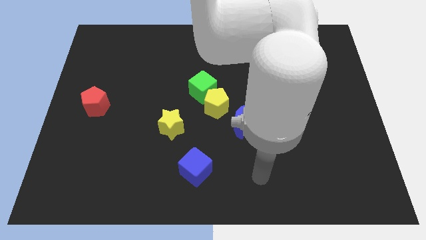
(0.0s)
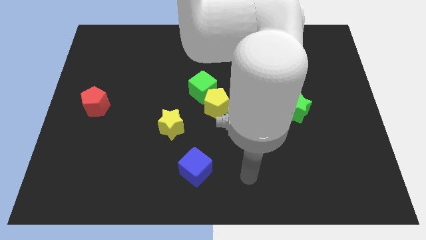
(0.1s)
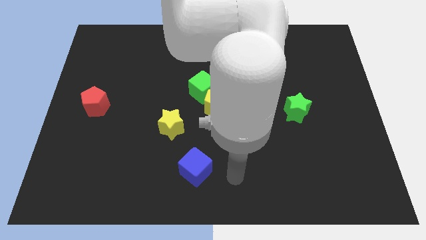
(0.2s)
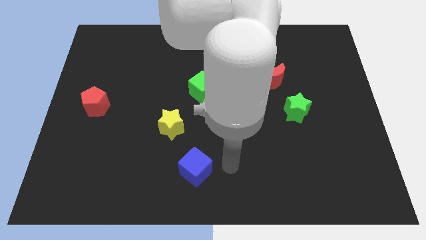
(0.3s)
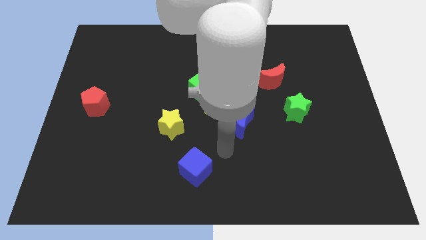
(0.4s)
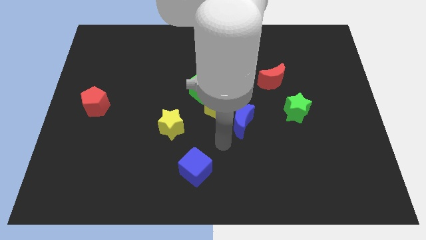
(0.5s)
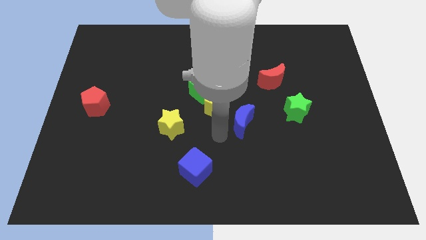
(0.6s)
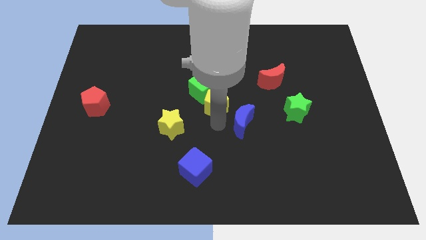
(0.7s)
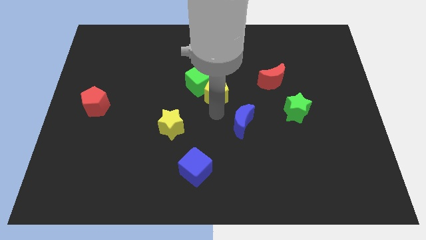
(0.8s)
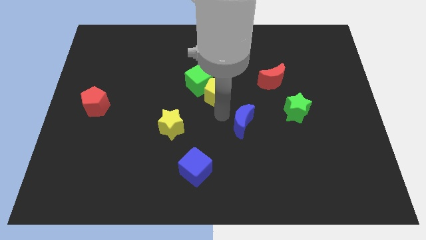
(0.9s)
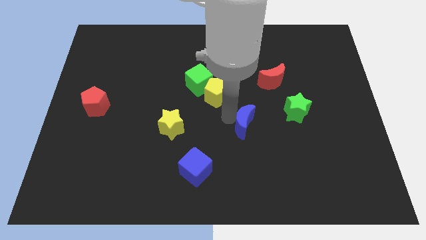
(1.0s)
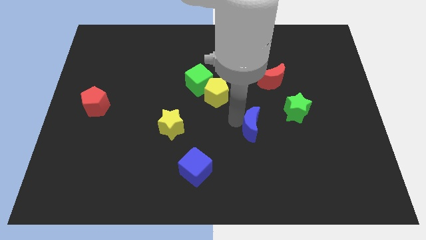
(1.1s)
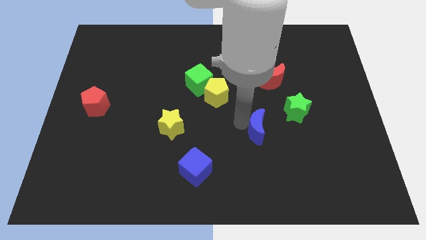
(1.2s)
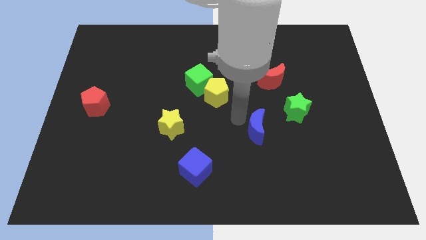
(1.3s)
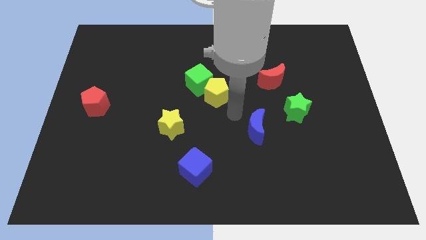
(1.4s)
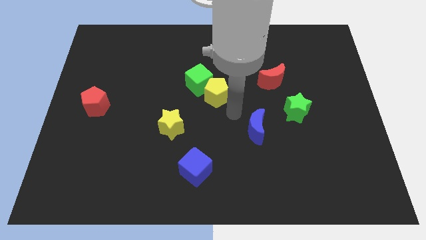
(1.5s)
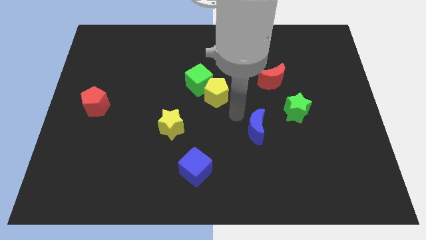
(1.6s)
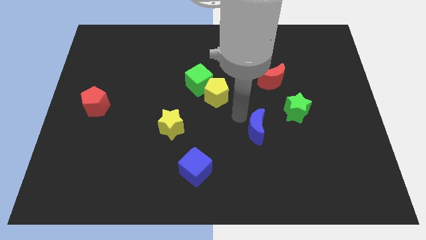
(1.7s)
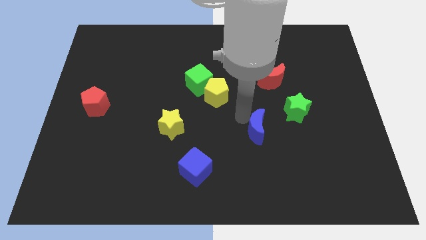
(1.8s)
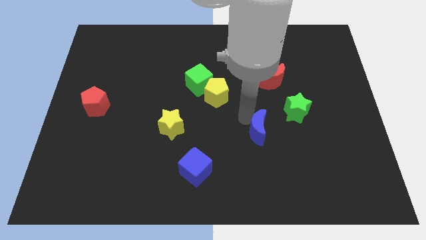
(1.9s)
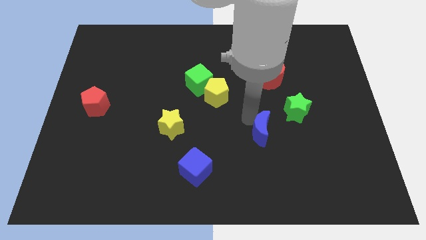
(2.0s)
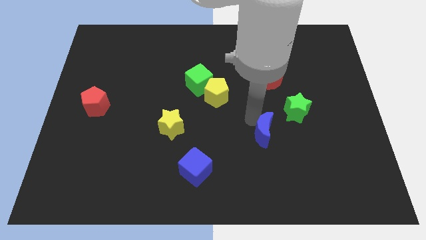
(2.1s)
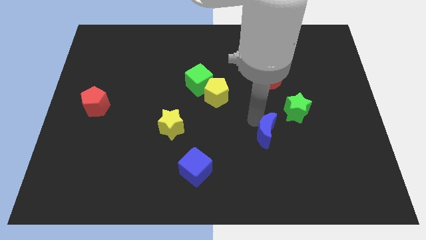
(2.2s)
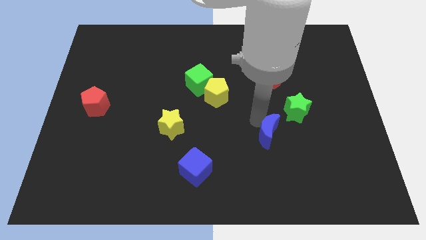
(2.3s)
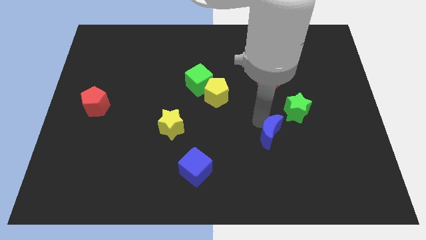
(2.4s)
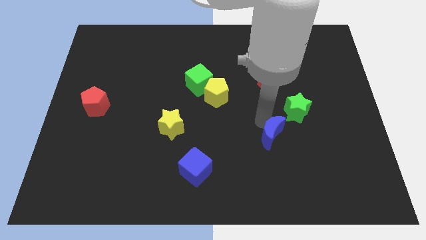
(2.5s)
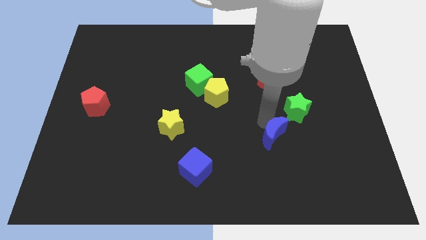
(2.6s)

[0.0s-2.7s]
slide the blue moon diagonally downwards and right a little

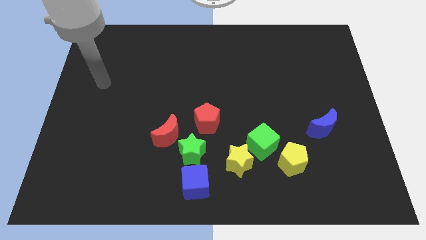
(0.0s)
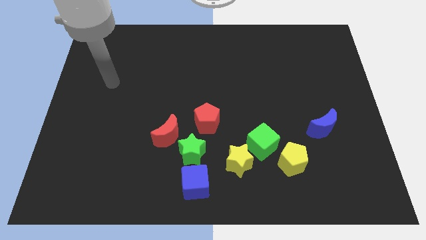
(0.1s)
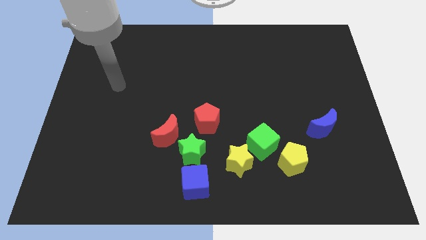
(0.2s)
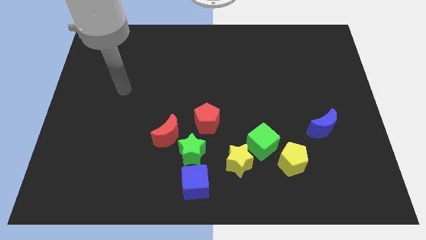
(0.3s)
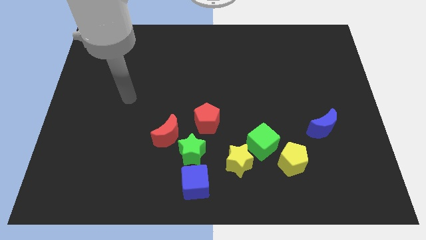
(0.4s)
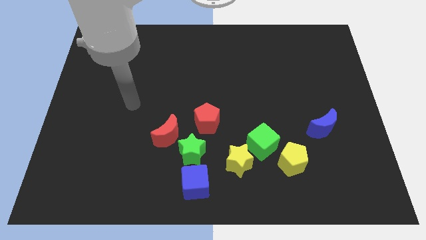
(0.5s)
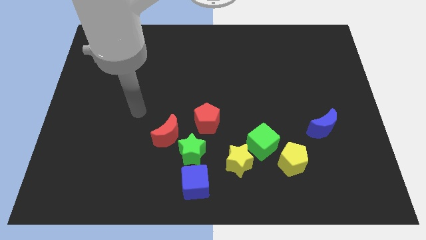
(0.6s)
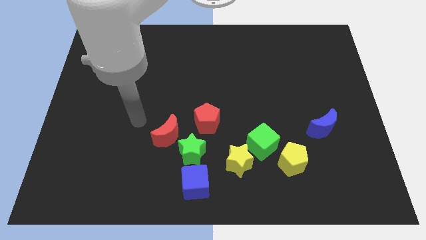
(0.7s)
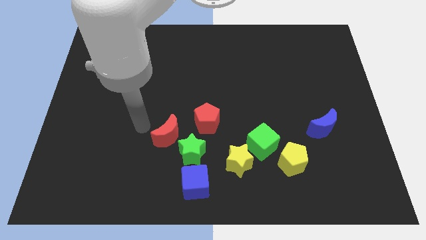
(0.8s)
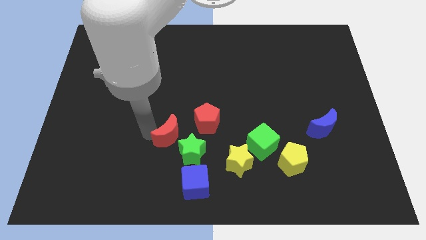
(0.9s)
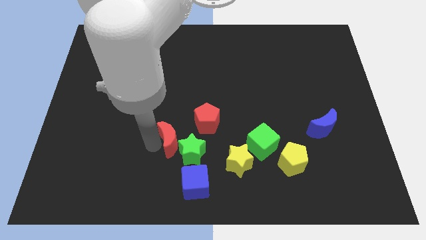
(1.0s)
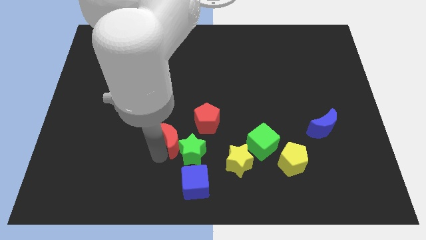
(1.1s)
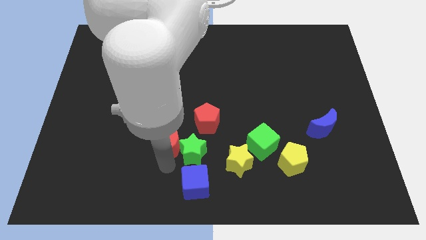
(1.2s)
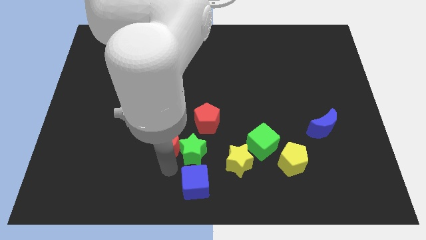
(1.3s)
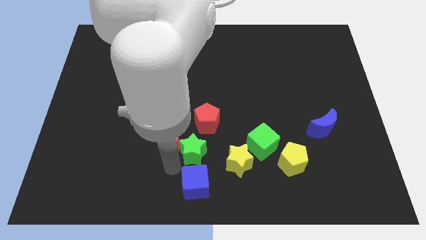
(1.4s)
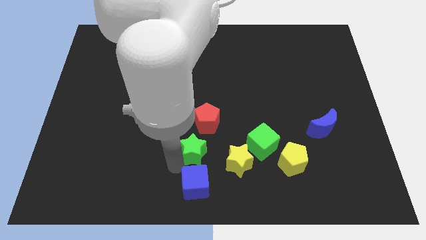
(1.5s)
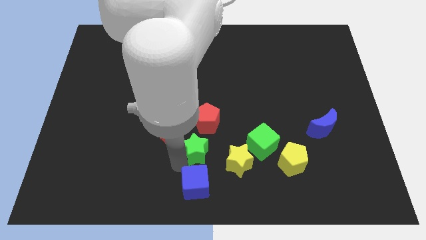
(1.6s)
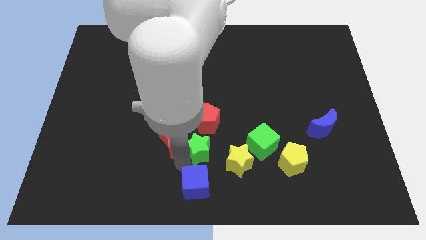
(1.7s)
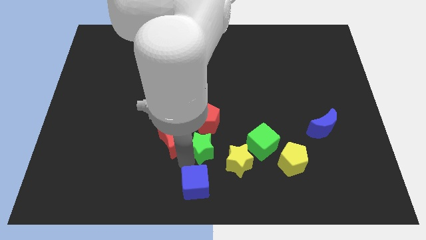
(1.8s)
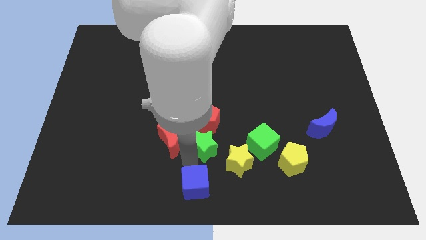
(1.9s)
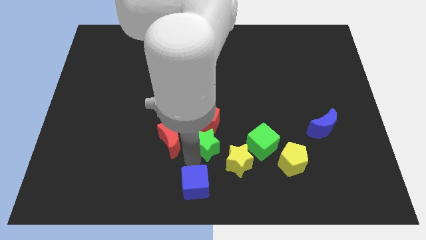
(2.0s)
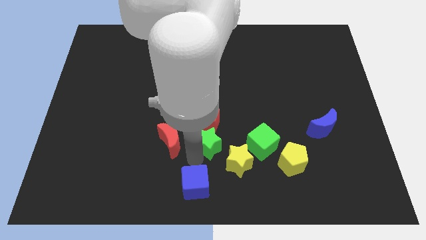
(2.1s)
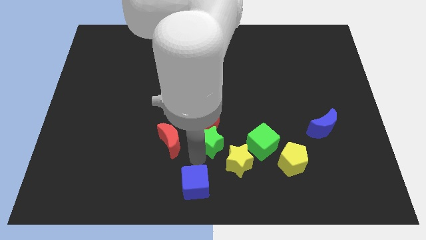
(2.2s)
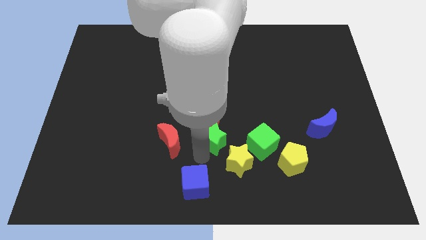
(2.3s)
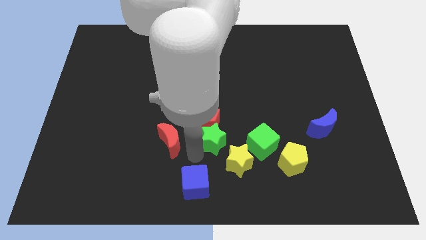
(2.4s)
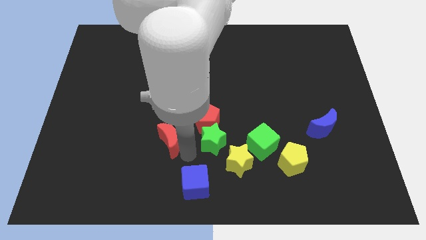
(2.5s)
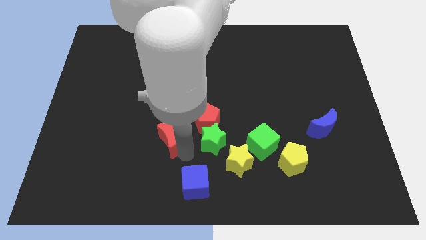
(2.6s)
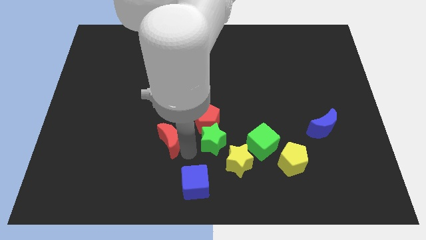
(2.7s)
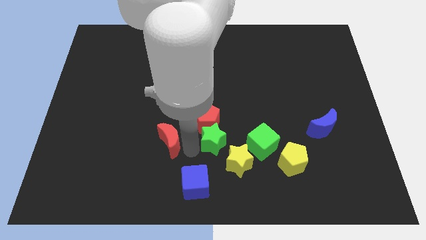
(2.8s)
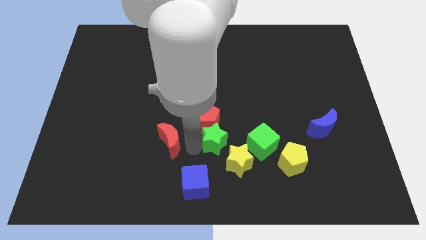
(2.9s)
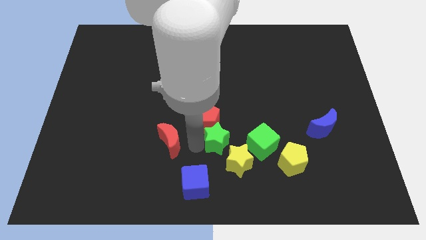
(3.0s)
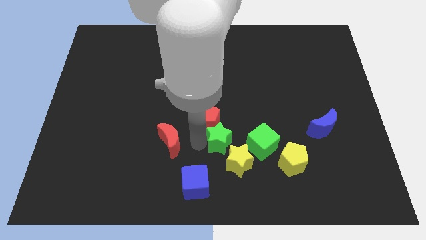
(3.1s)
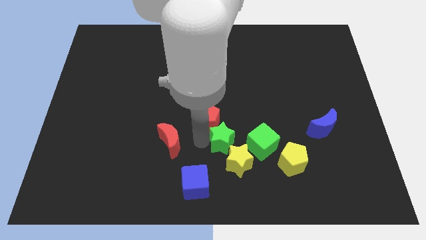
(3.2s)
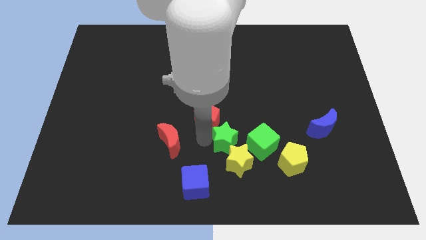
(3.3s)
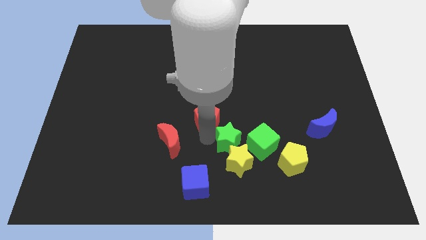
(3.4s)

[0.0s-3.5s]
slightly push the green star upwards and then to the right

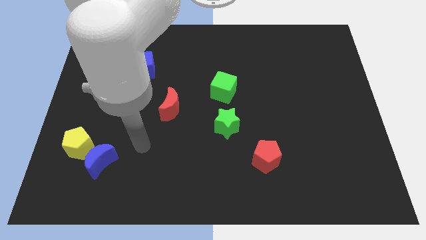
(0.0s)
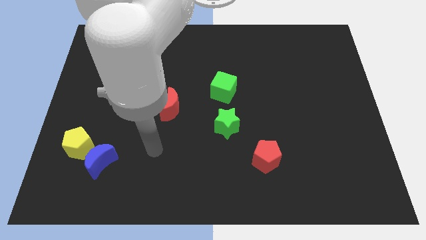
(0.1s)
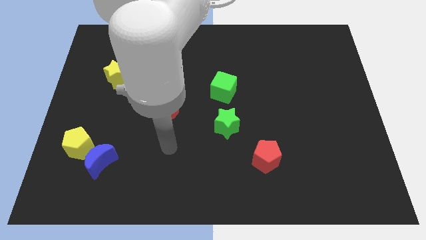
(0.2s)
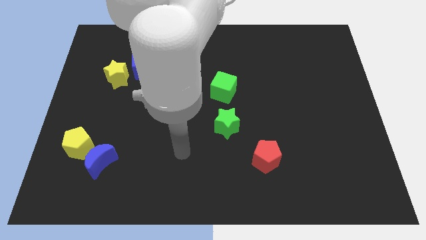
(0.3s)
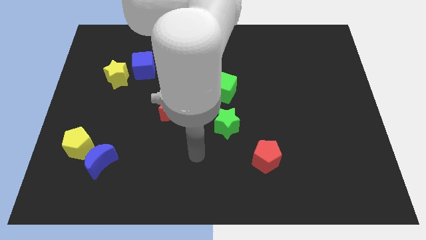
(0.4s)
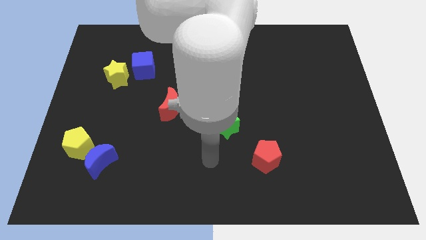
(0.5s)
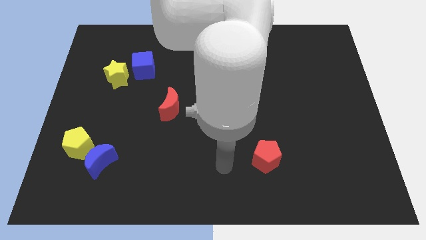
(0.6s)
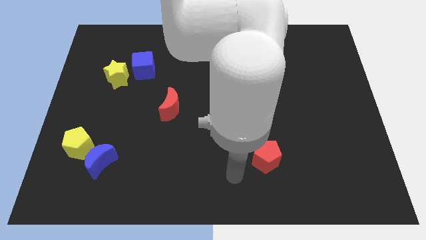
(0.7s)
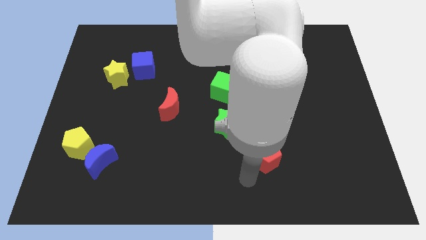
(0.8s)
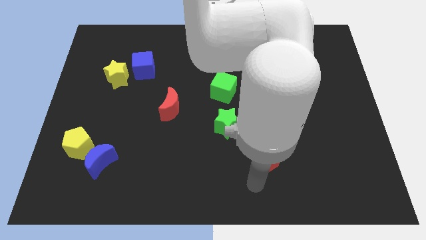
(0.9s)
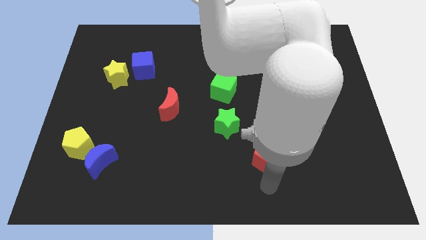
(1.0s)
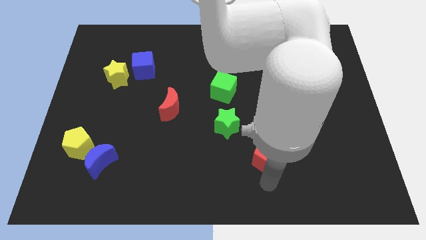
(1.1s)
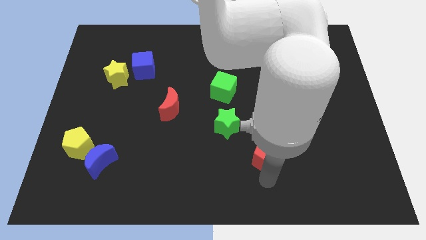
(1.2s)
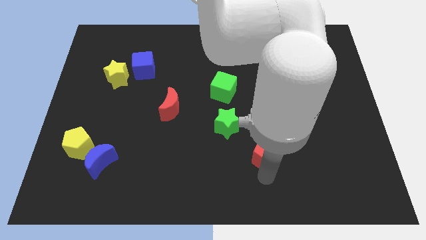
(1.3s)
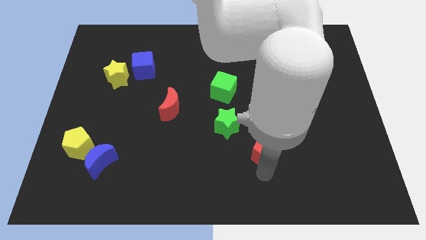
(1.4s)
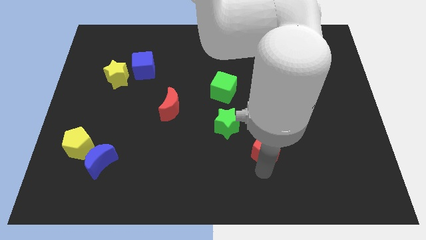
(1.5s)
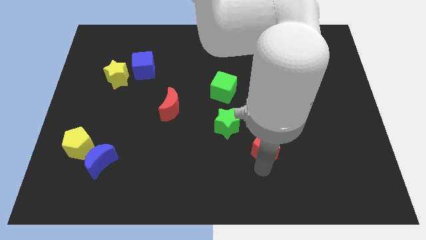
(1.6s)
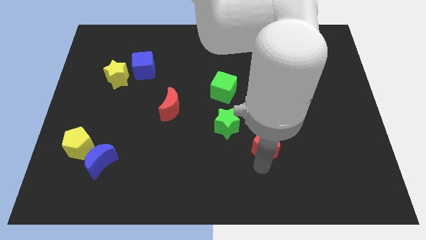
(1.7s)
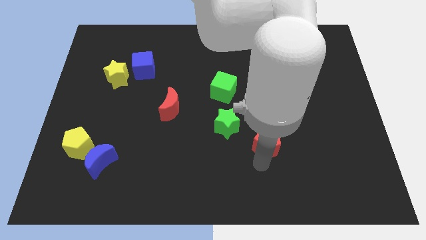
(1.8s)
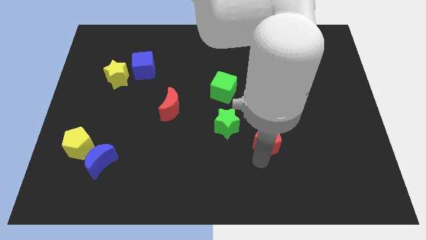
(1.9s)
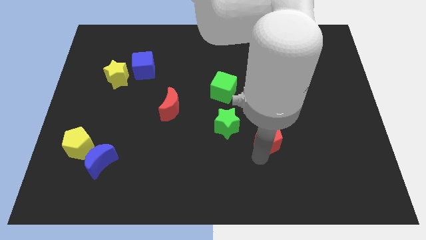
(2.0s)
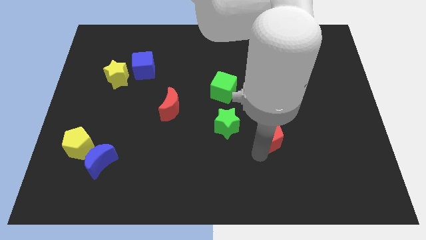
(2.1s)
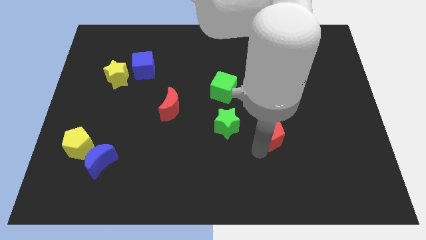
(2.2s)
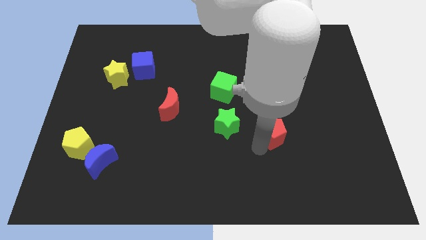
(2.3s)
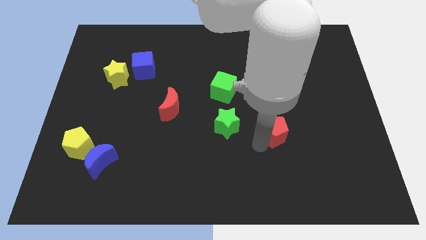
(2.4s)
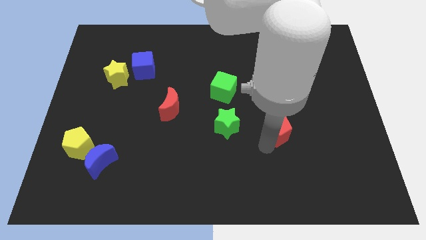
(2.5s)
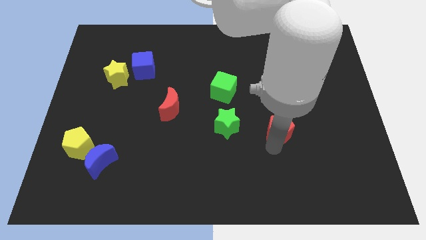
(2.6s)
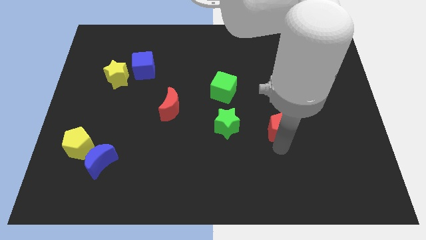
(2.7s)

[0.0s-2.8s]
push the red pentagon up a little bit
